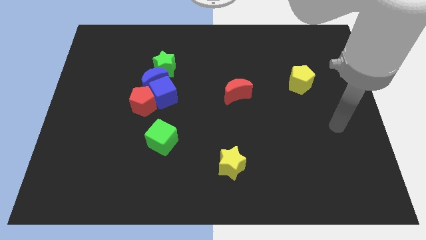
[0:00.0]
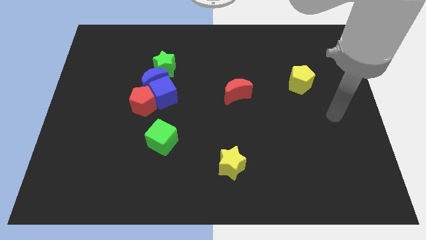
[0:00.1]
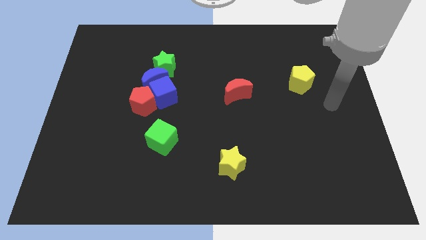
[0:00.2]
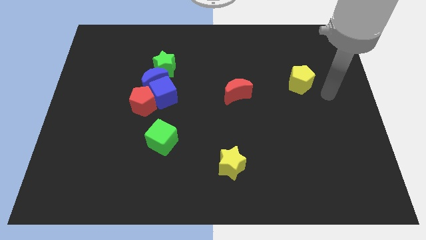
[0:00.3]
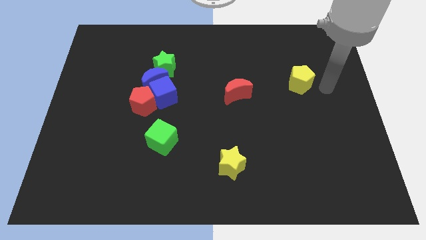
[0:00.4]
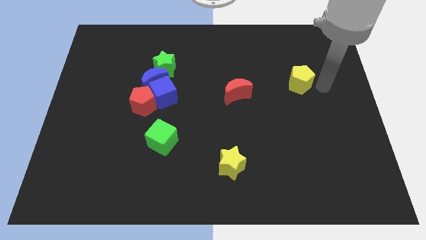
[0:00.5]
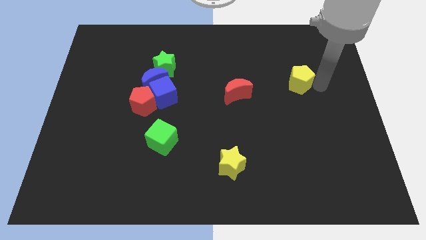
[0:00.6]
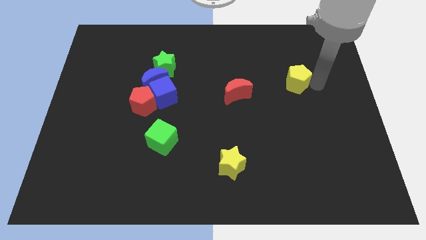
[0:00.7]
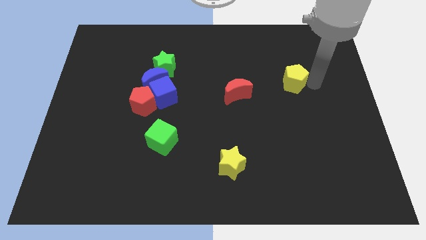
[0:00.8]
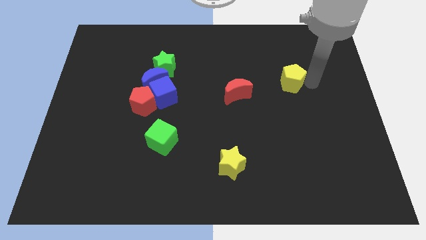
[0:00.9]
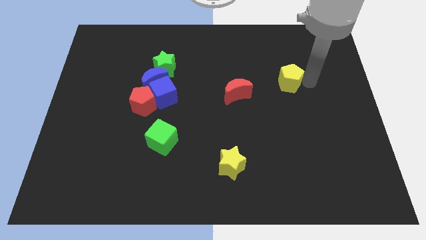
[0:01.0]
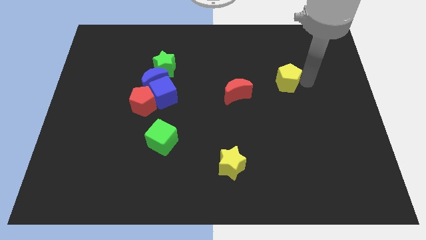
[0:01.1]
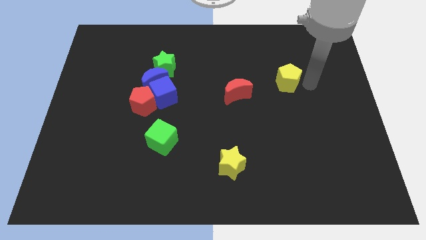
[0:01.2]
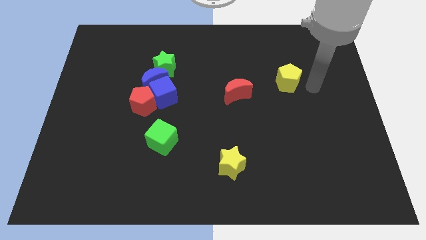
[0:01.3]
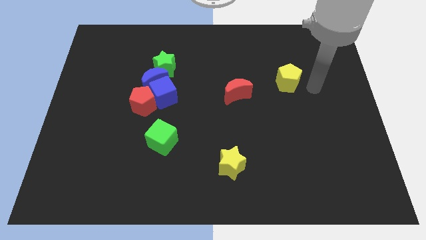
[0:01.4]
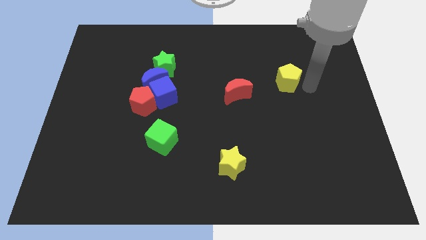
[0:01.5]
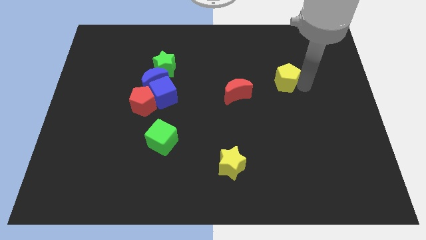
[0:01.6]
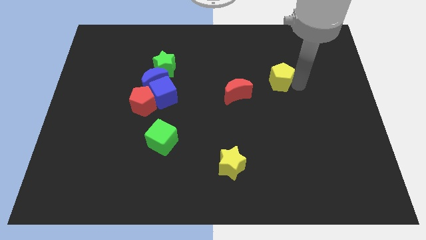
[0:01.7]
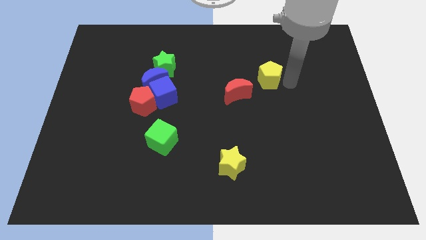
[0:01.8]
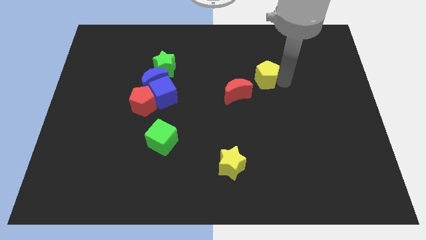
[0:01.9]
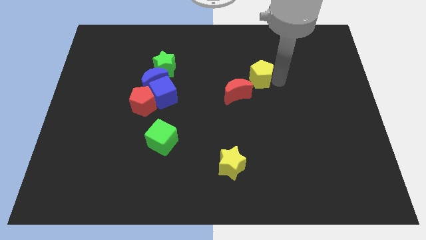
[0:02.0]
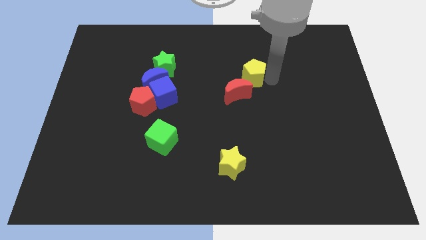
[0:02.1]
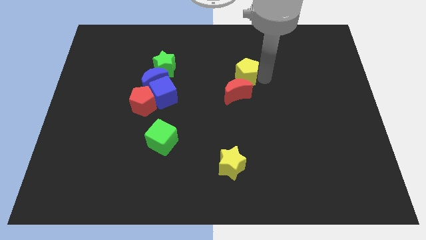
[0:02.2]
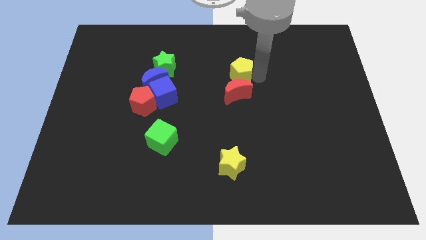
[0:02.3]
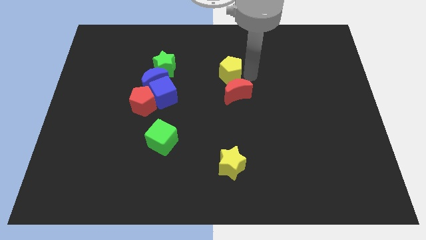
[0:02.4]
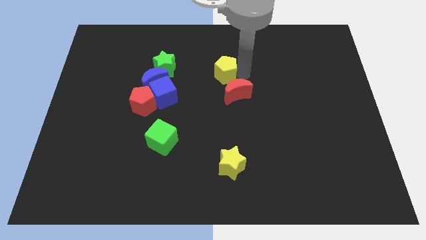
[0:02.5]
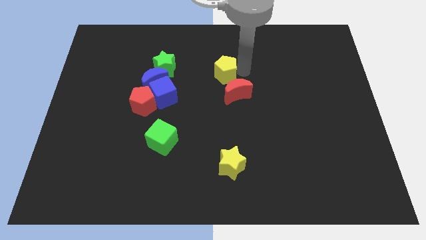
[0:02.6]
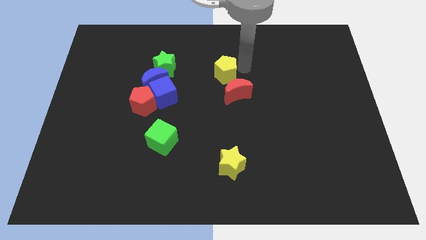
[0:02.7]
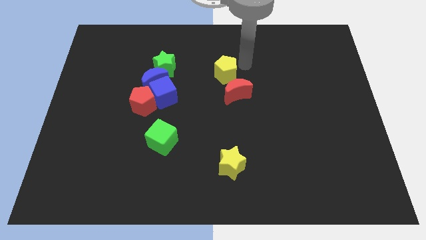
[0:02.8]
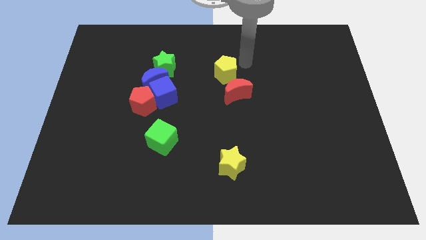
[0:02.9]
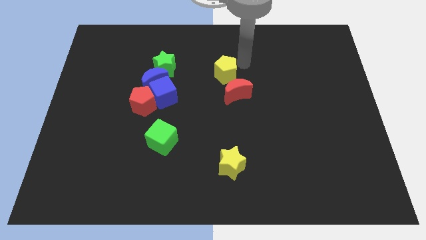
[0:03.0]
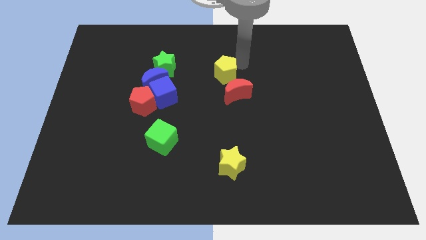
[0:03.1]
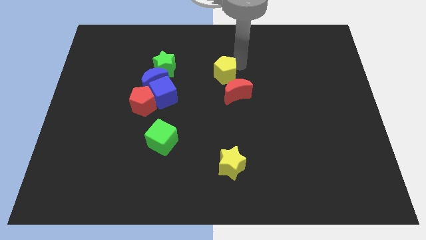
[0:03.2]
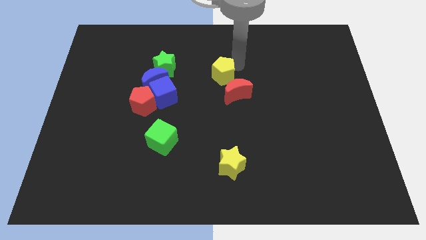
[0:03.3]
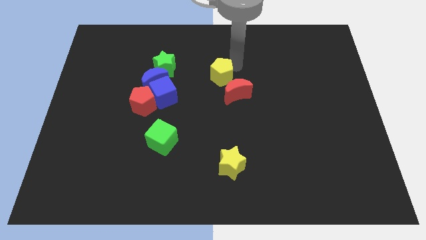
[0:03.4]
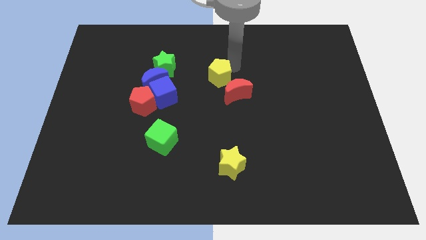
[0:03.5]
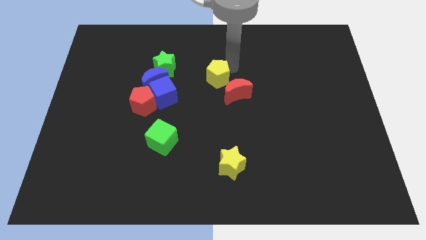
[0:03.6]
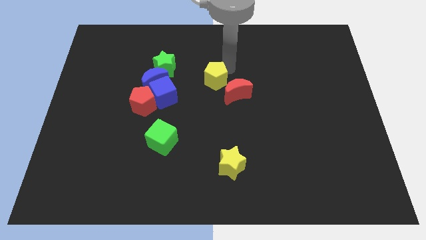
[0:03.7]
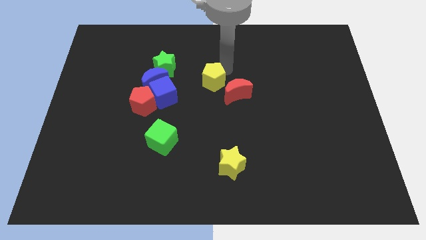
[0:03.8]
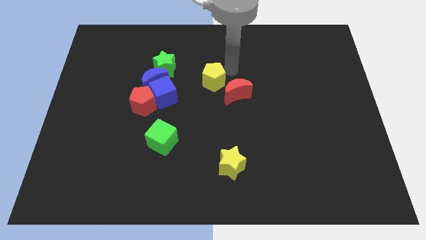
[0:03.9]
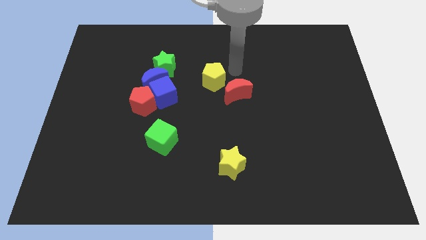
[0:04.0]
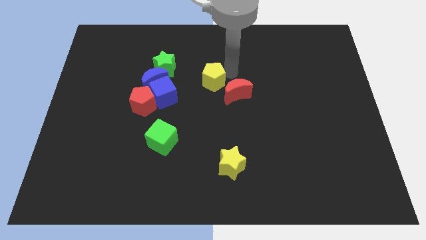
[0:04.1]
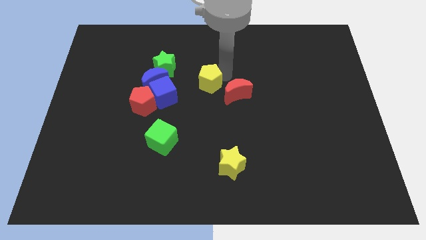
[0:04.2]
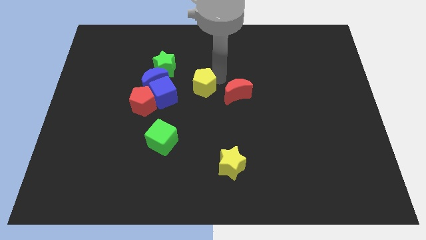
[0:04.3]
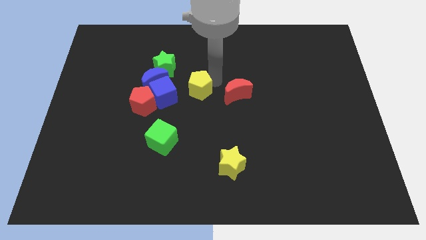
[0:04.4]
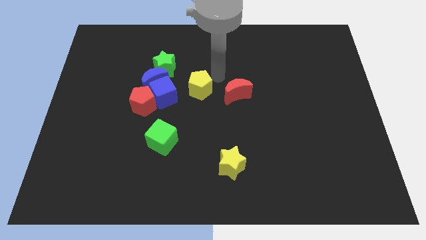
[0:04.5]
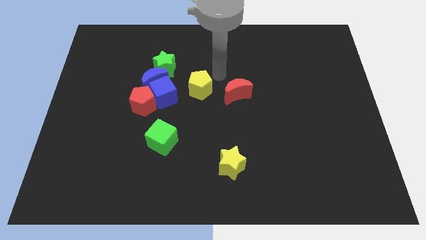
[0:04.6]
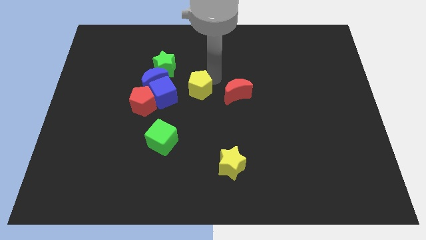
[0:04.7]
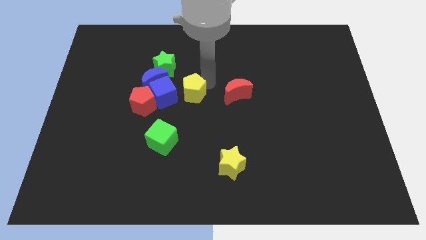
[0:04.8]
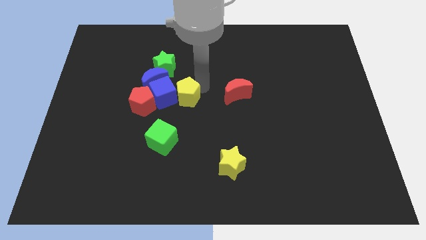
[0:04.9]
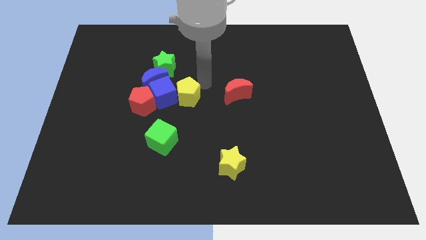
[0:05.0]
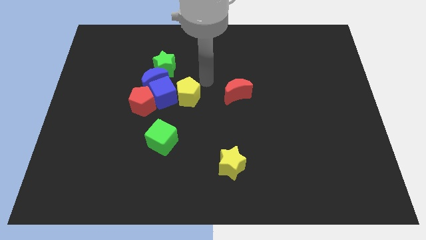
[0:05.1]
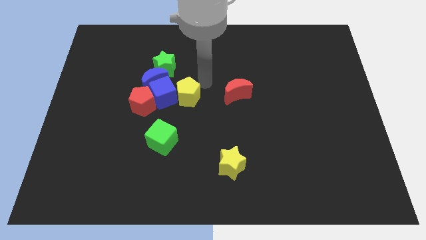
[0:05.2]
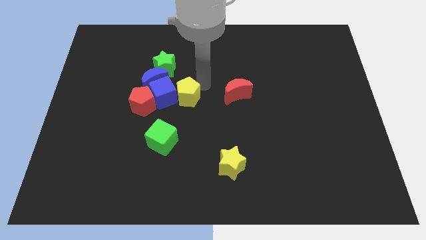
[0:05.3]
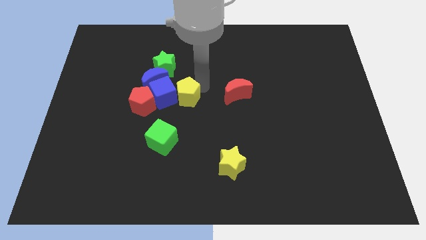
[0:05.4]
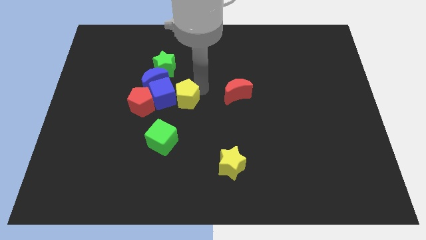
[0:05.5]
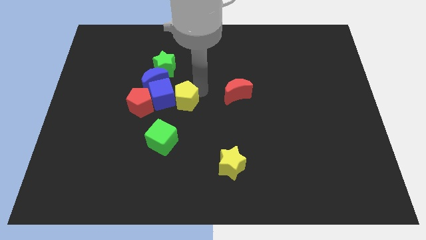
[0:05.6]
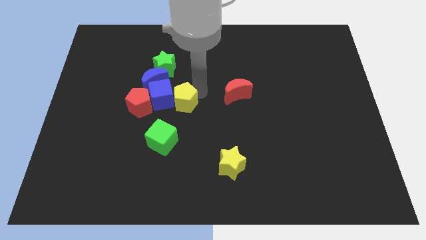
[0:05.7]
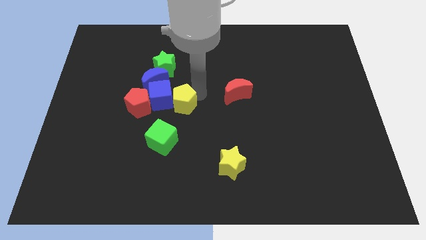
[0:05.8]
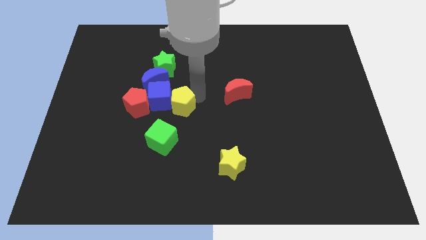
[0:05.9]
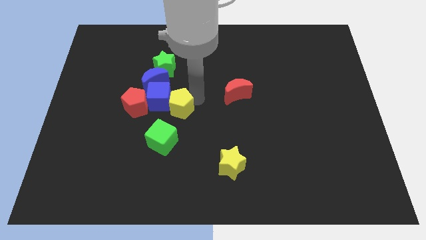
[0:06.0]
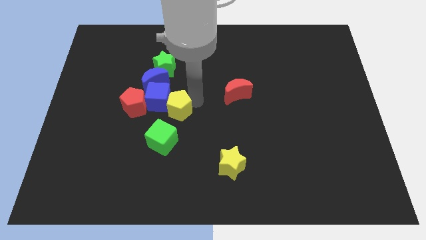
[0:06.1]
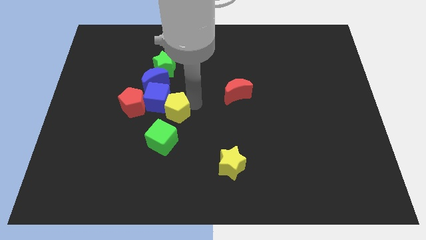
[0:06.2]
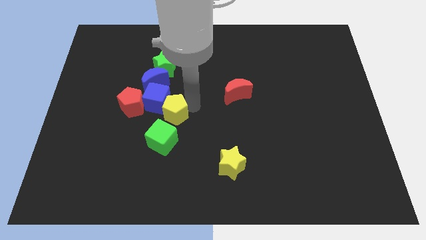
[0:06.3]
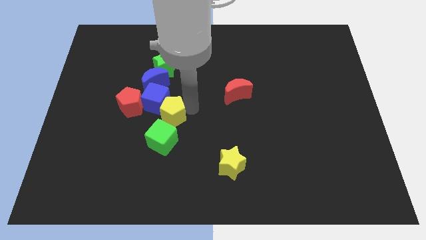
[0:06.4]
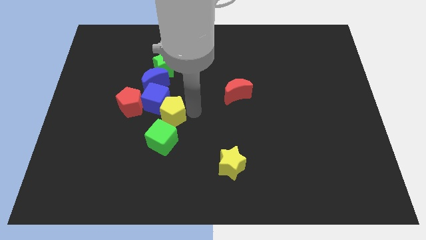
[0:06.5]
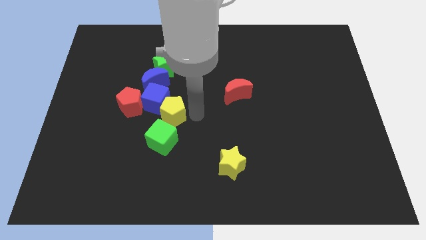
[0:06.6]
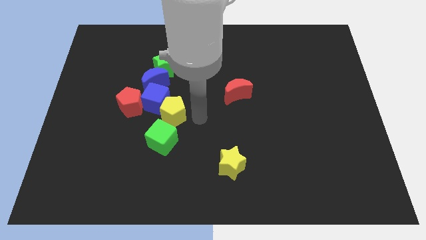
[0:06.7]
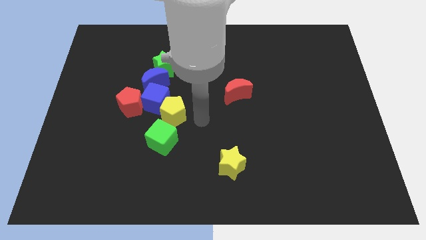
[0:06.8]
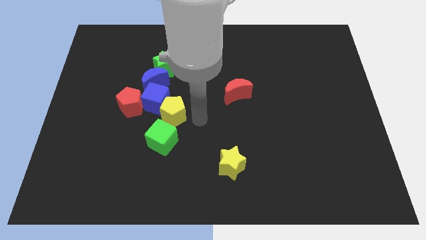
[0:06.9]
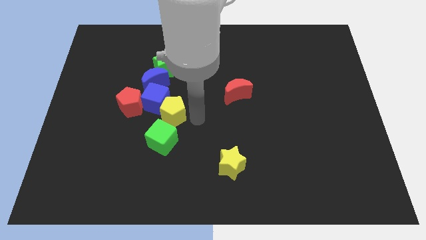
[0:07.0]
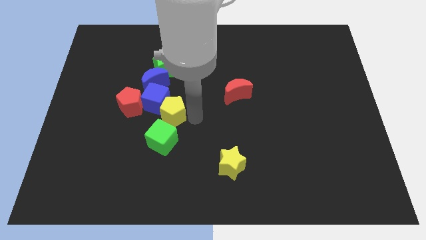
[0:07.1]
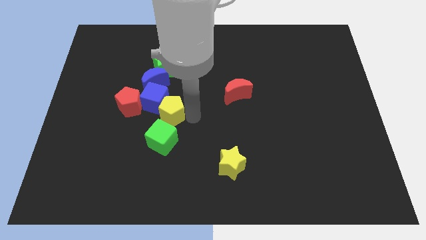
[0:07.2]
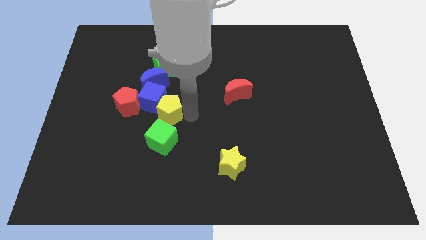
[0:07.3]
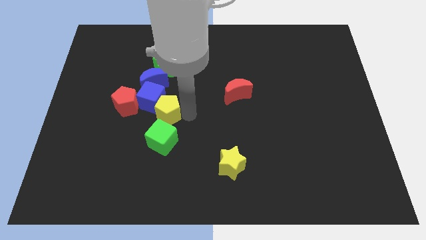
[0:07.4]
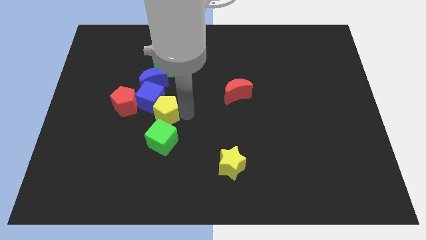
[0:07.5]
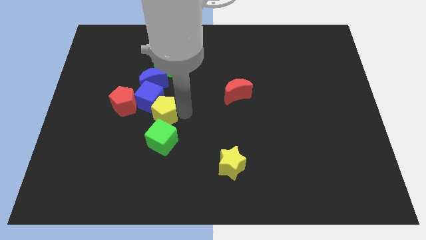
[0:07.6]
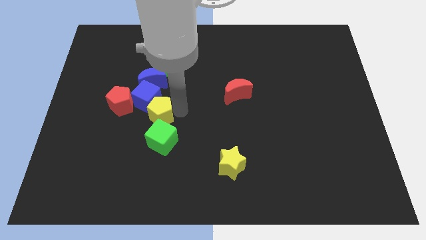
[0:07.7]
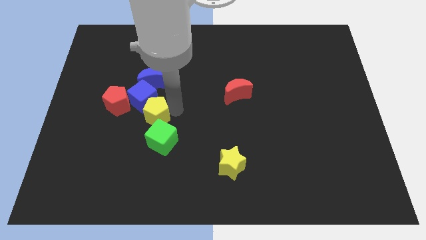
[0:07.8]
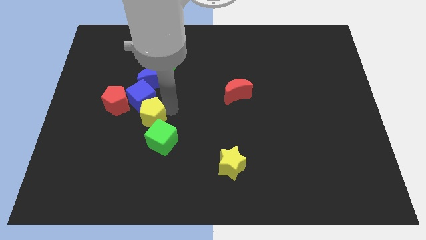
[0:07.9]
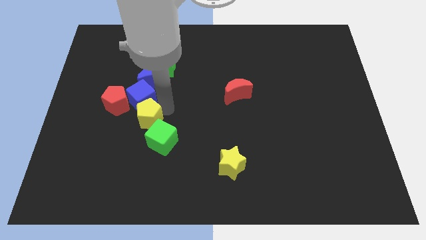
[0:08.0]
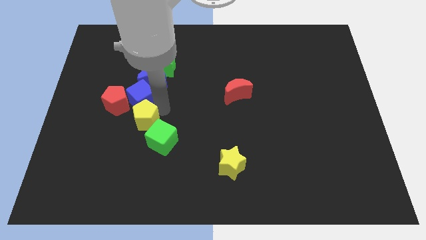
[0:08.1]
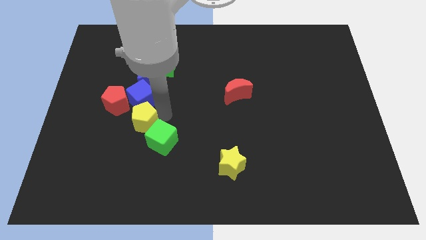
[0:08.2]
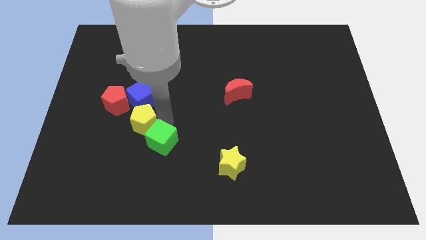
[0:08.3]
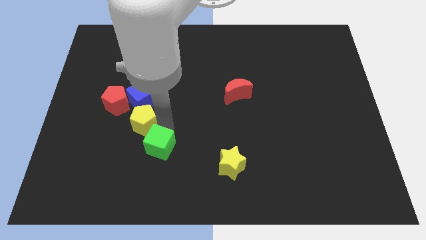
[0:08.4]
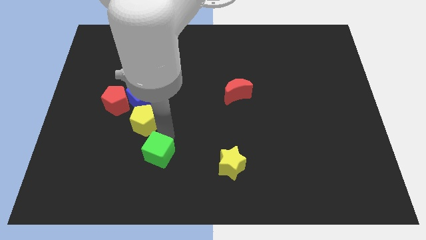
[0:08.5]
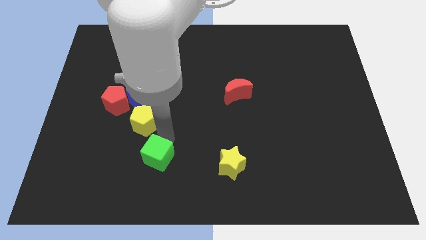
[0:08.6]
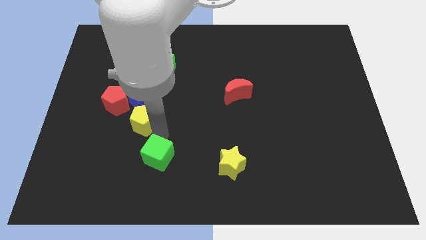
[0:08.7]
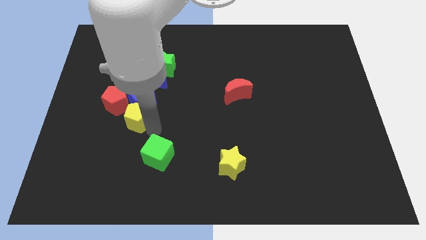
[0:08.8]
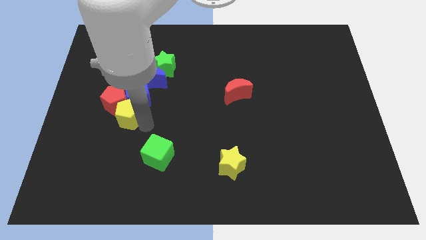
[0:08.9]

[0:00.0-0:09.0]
push the yellow pentagon towards the red pentagon
